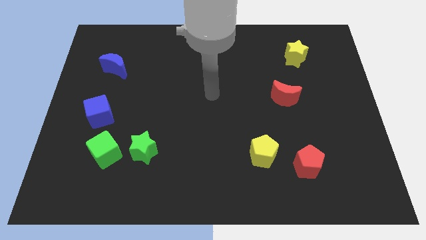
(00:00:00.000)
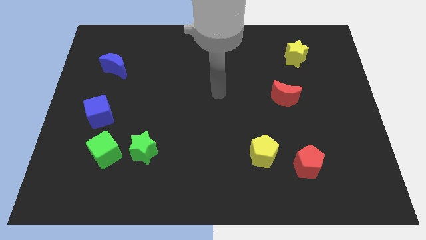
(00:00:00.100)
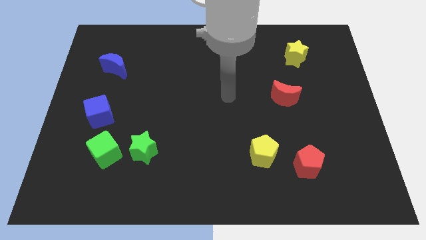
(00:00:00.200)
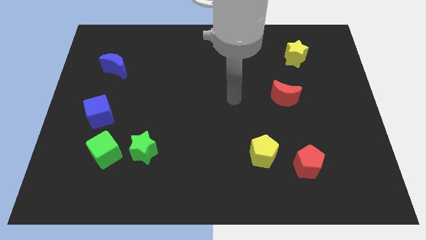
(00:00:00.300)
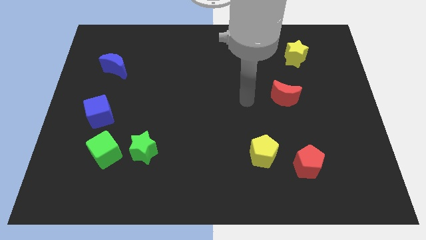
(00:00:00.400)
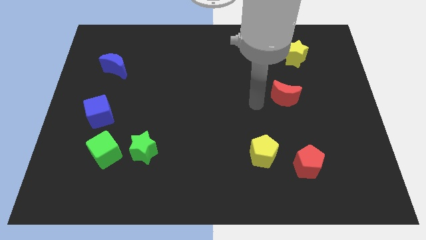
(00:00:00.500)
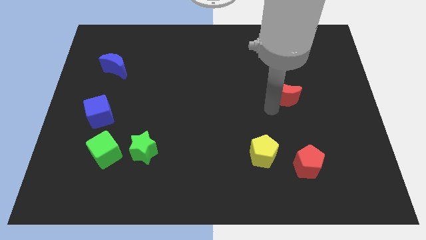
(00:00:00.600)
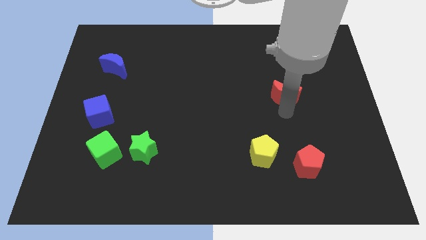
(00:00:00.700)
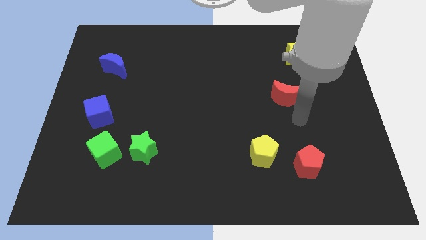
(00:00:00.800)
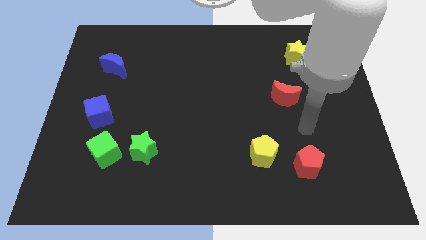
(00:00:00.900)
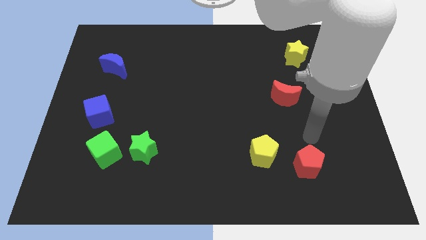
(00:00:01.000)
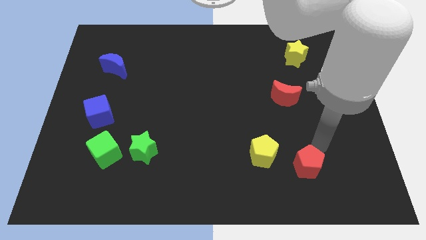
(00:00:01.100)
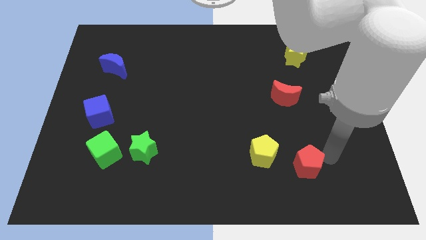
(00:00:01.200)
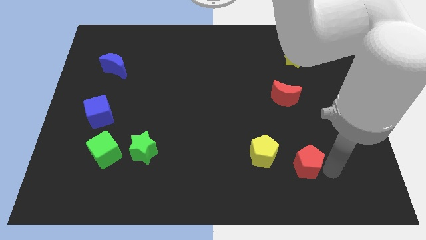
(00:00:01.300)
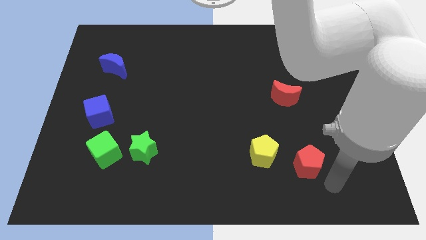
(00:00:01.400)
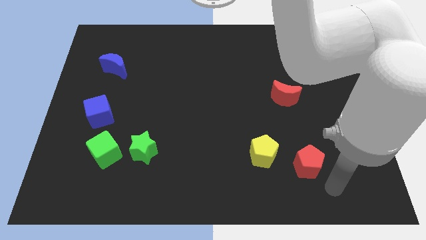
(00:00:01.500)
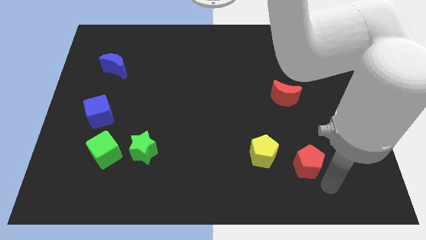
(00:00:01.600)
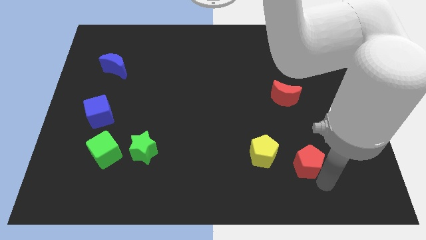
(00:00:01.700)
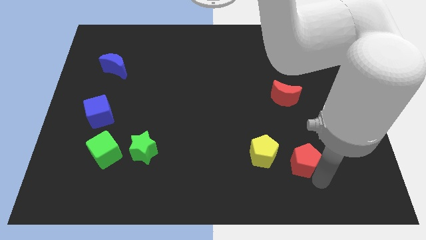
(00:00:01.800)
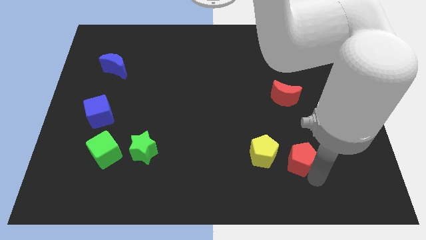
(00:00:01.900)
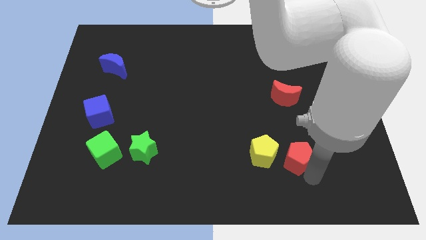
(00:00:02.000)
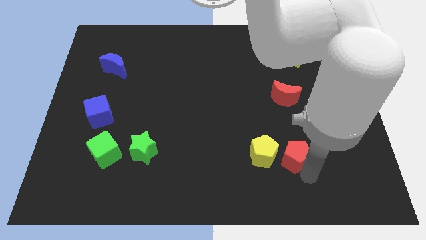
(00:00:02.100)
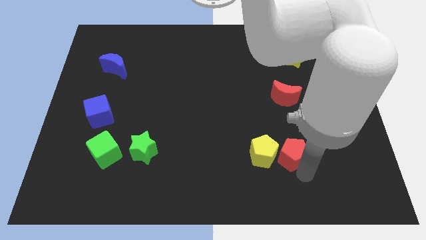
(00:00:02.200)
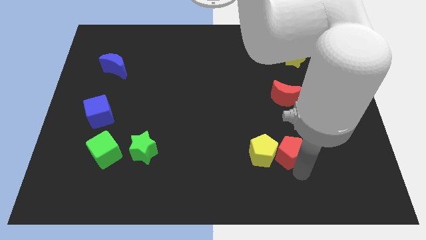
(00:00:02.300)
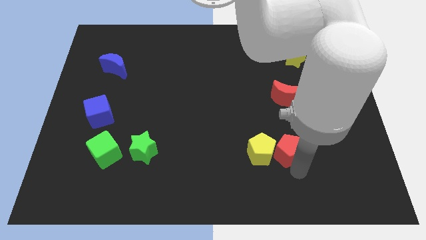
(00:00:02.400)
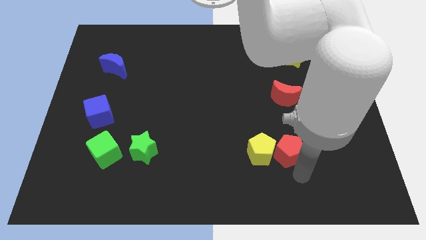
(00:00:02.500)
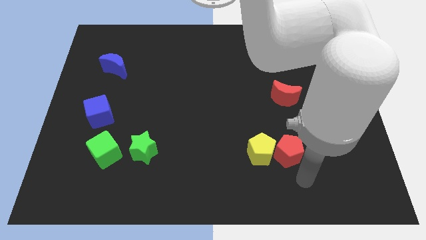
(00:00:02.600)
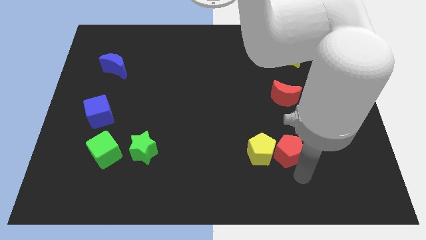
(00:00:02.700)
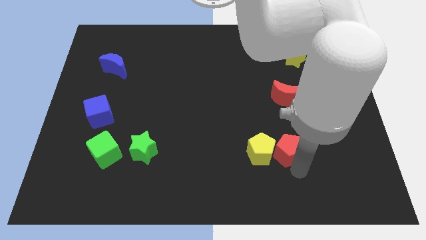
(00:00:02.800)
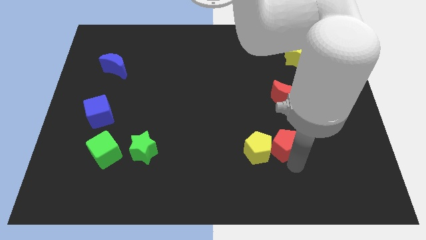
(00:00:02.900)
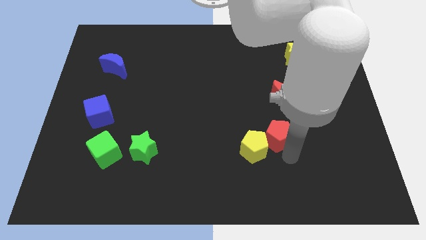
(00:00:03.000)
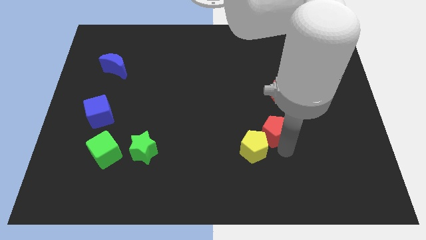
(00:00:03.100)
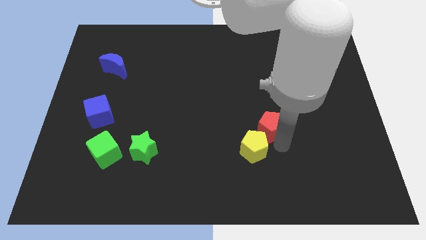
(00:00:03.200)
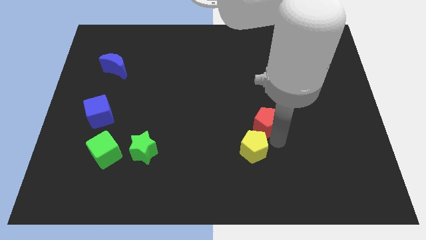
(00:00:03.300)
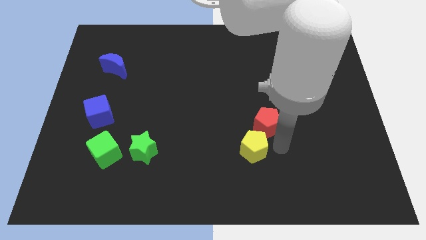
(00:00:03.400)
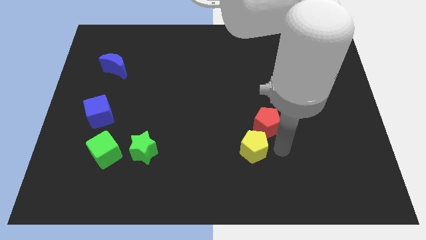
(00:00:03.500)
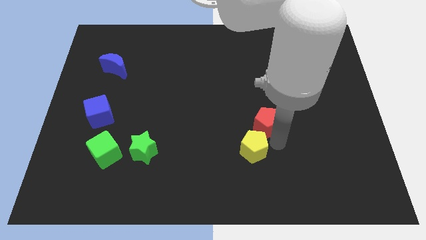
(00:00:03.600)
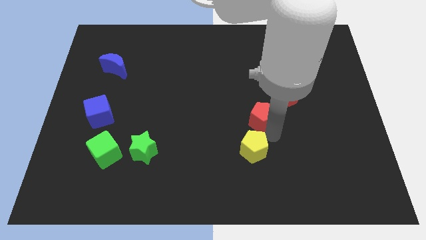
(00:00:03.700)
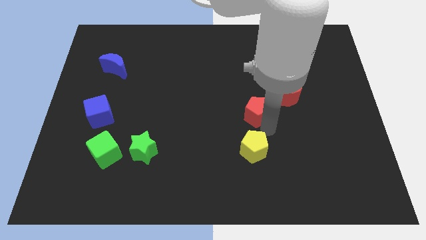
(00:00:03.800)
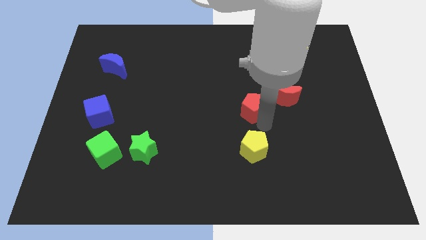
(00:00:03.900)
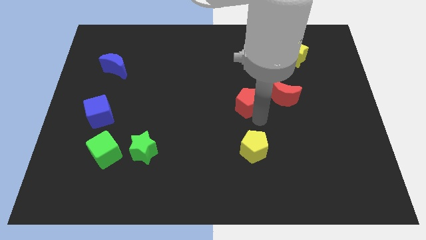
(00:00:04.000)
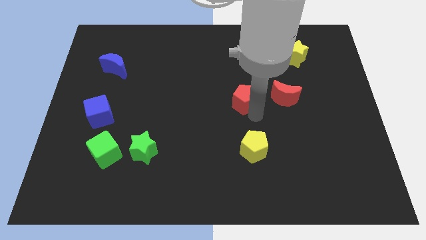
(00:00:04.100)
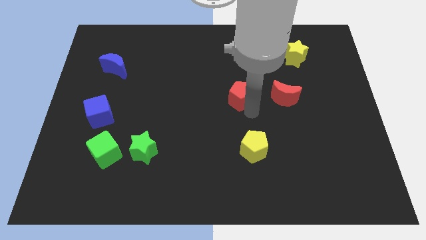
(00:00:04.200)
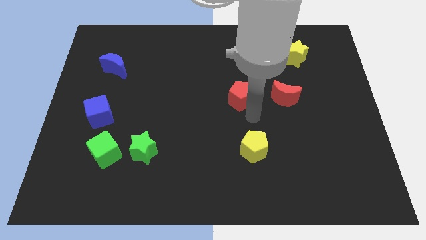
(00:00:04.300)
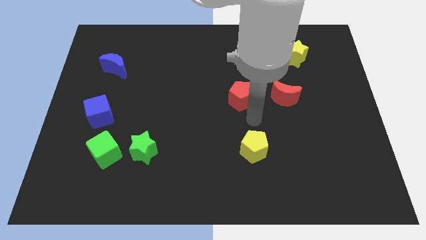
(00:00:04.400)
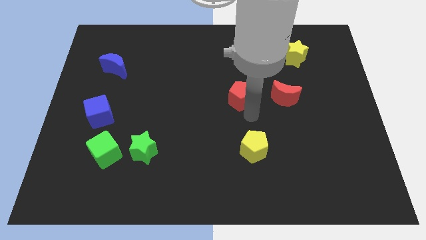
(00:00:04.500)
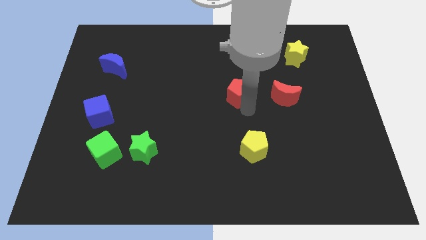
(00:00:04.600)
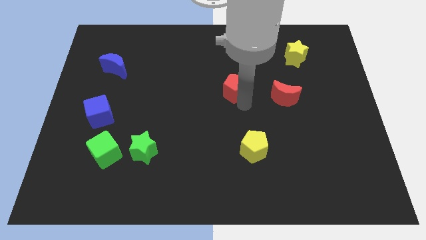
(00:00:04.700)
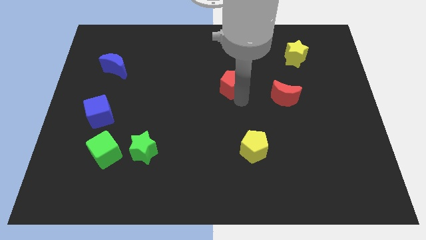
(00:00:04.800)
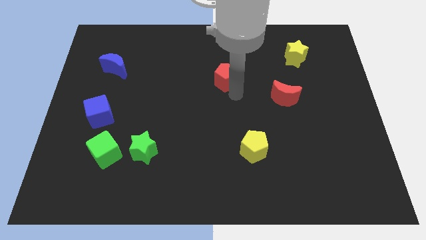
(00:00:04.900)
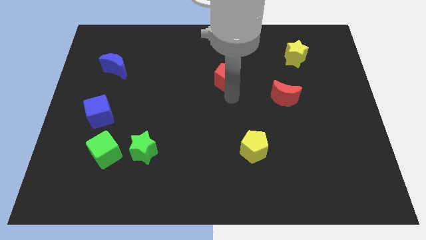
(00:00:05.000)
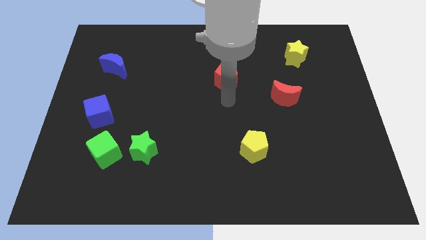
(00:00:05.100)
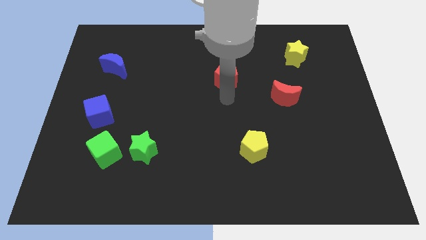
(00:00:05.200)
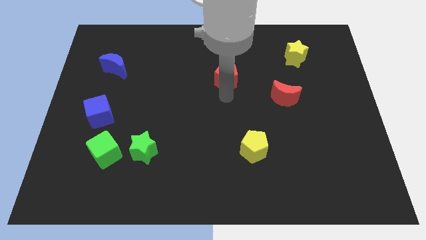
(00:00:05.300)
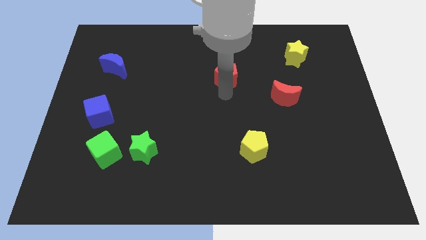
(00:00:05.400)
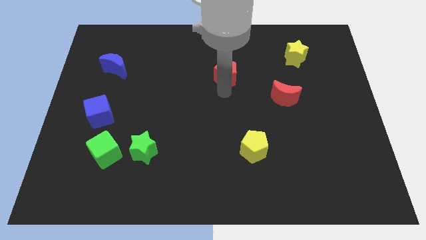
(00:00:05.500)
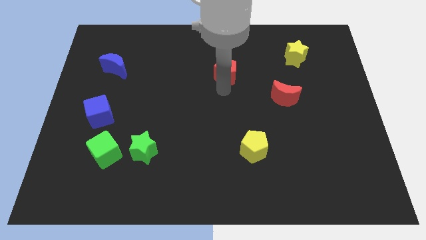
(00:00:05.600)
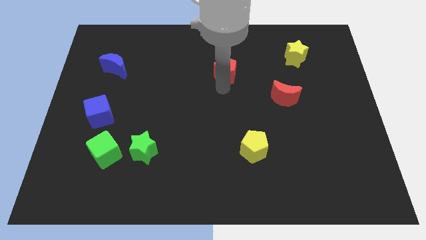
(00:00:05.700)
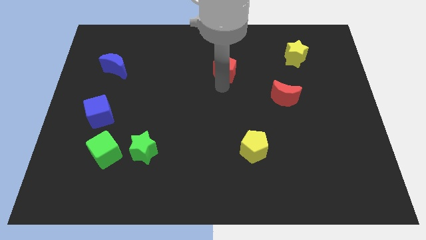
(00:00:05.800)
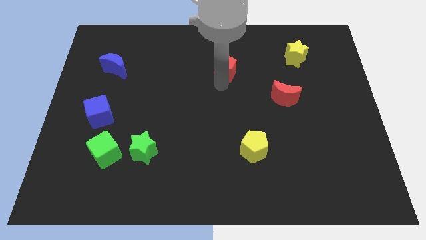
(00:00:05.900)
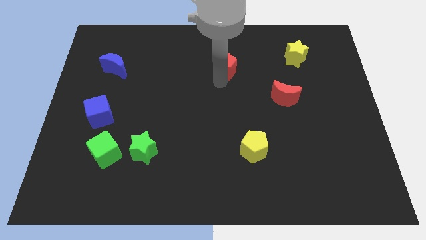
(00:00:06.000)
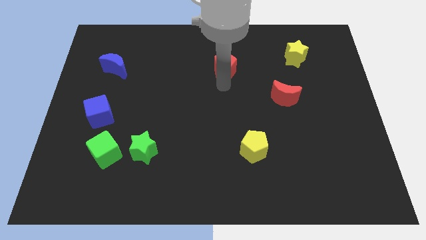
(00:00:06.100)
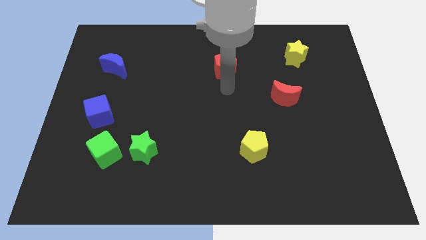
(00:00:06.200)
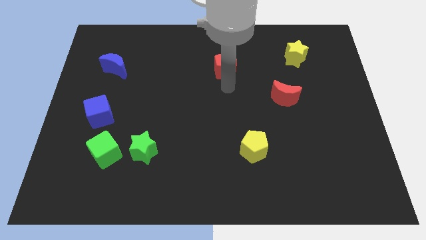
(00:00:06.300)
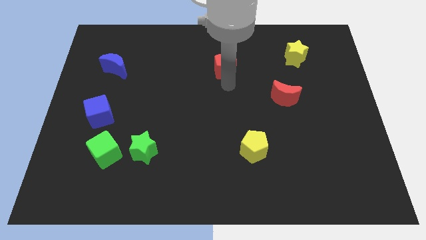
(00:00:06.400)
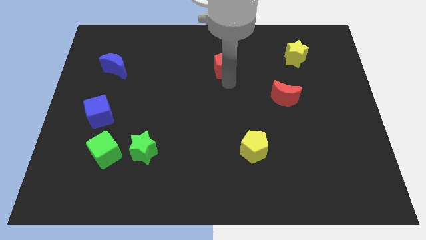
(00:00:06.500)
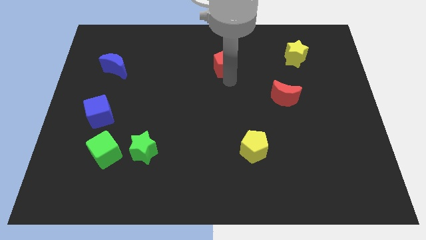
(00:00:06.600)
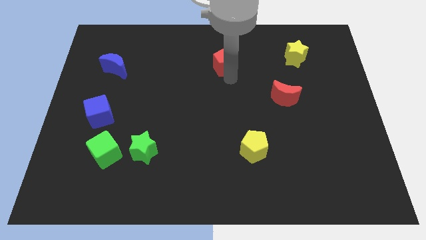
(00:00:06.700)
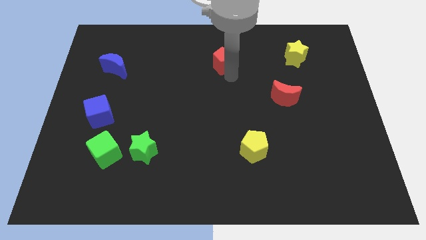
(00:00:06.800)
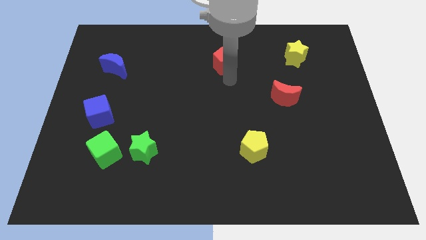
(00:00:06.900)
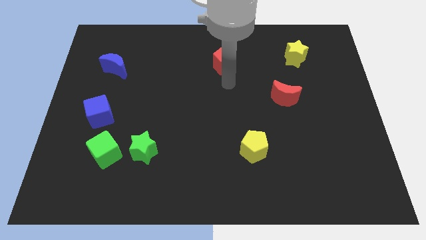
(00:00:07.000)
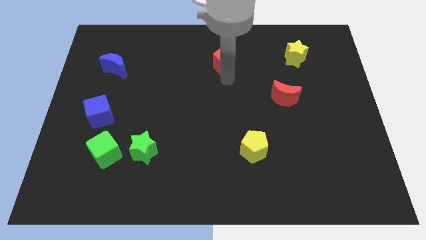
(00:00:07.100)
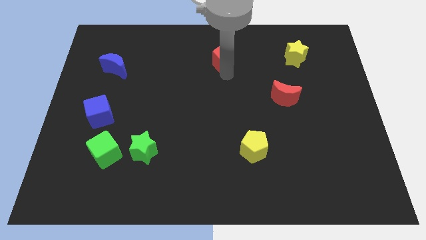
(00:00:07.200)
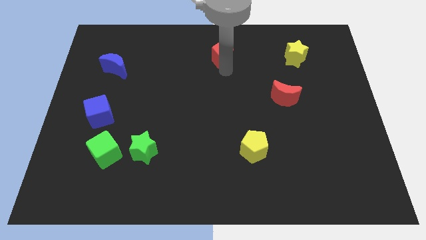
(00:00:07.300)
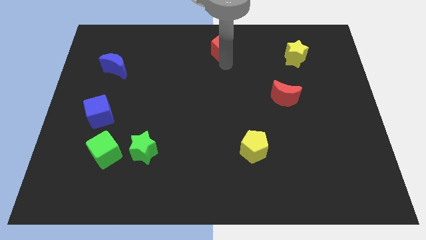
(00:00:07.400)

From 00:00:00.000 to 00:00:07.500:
slide the red pentagon to the top side

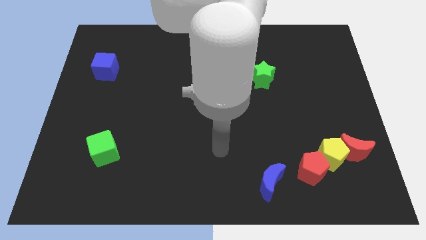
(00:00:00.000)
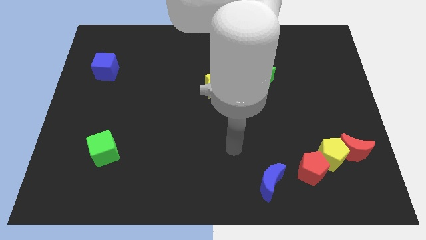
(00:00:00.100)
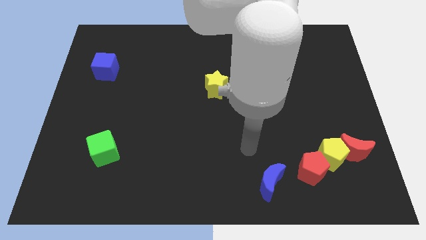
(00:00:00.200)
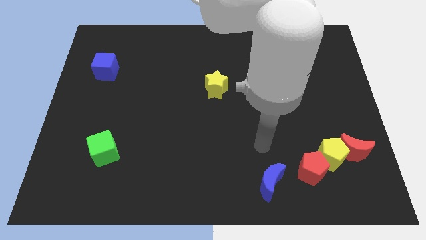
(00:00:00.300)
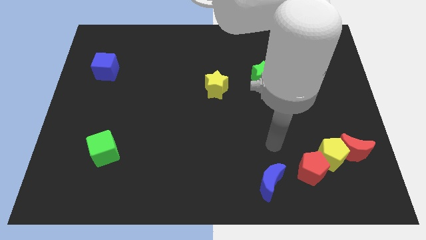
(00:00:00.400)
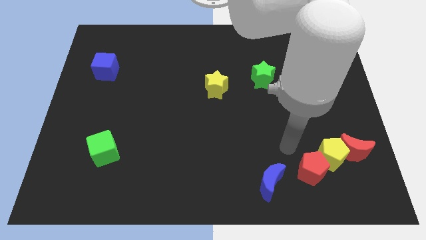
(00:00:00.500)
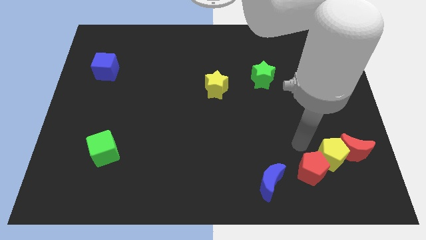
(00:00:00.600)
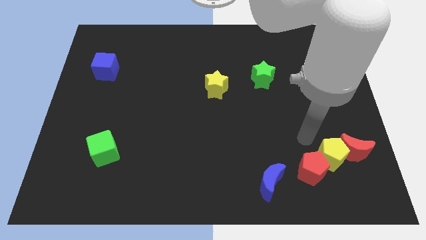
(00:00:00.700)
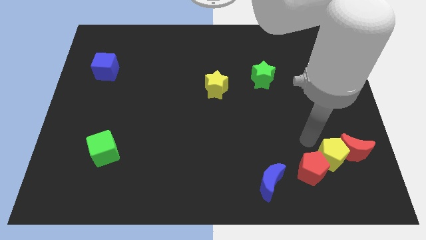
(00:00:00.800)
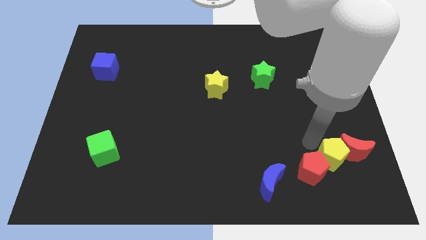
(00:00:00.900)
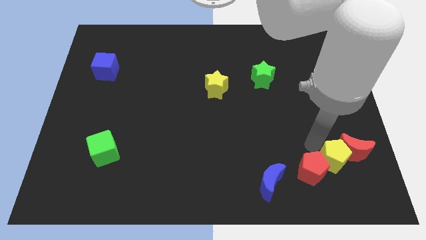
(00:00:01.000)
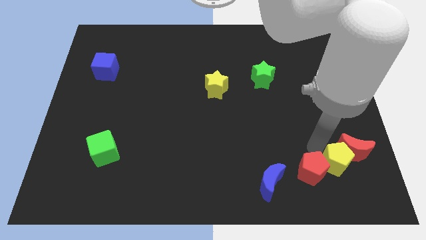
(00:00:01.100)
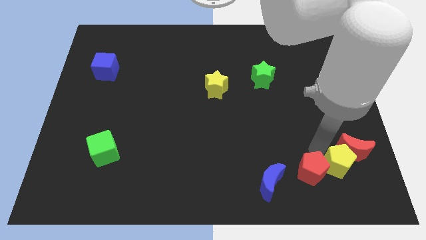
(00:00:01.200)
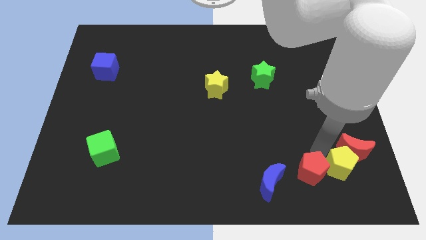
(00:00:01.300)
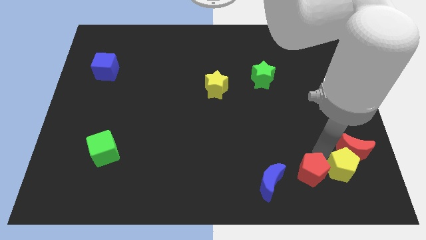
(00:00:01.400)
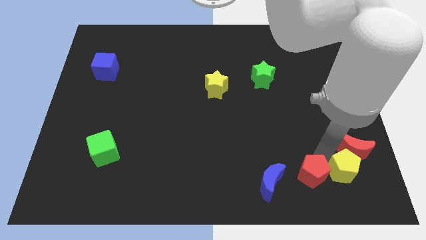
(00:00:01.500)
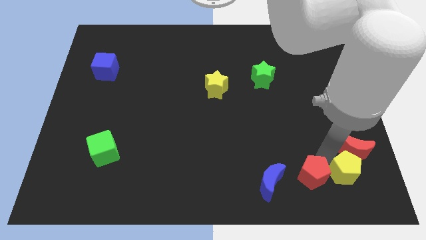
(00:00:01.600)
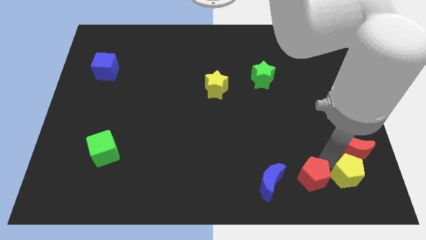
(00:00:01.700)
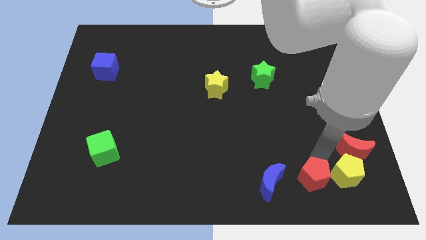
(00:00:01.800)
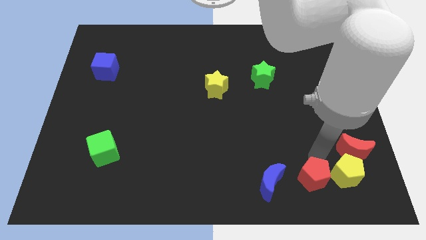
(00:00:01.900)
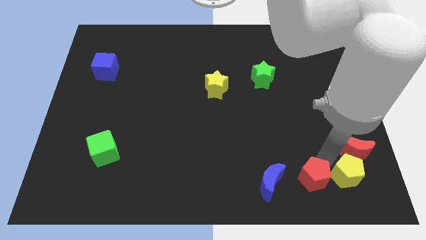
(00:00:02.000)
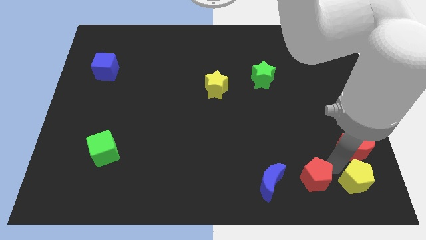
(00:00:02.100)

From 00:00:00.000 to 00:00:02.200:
put the yellow pentagon to the bottom right
